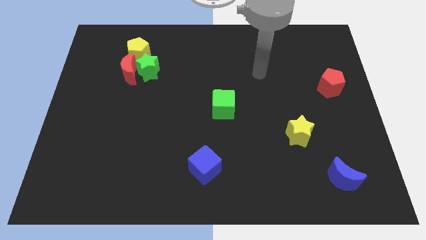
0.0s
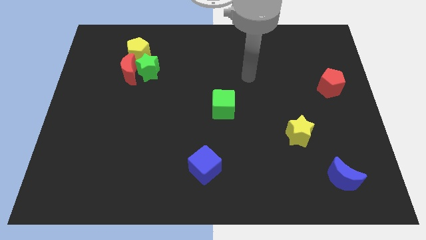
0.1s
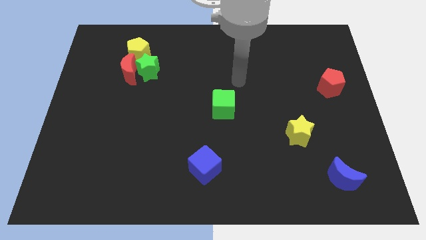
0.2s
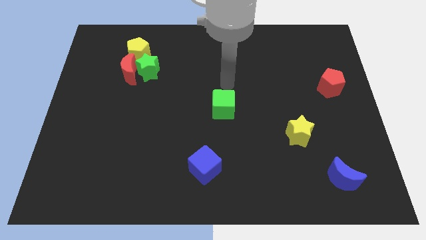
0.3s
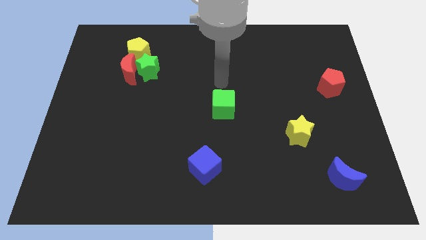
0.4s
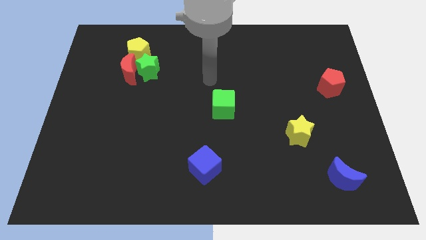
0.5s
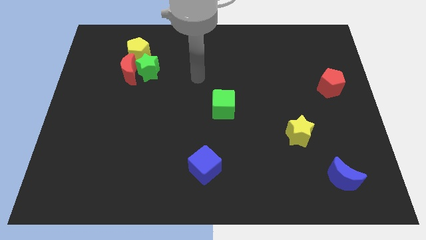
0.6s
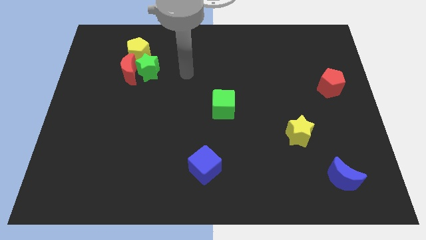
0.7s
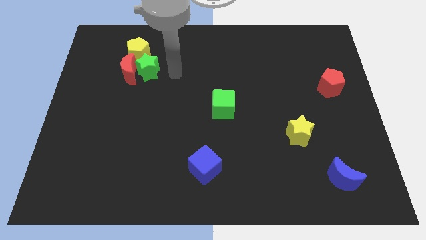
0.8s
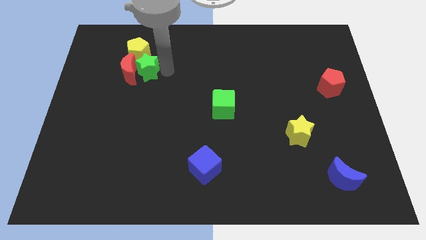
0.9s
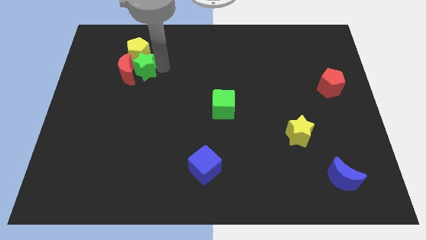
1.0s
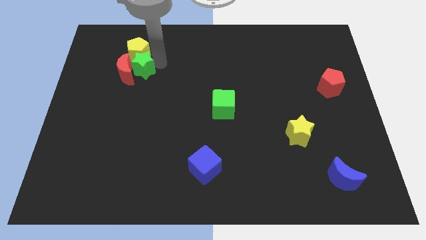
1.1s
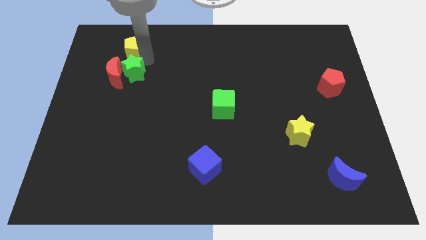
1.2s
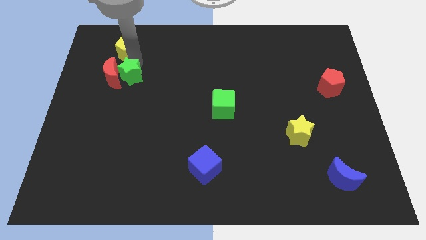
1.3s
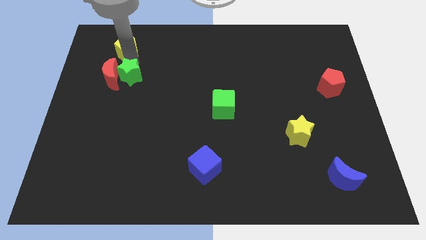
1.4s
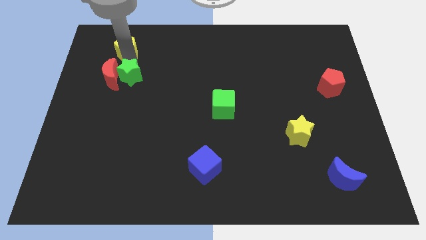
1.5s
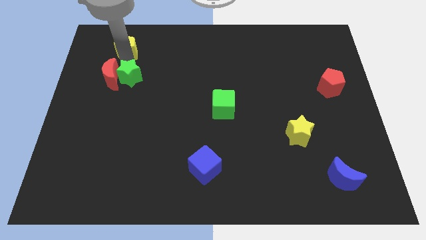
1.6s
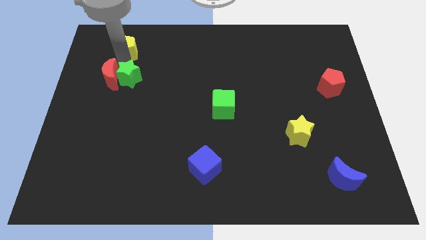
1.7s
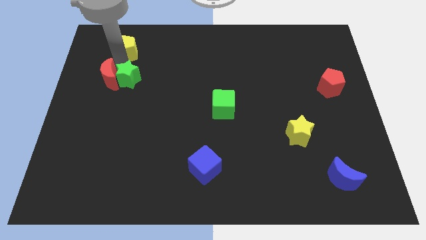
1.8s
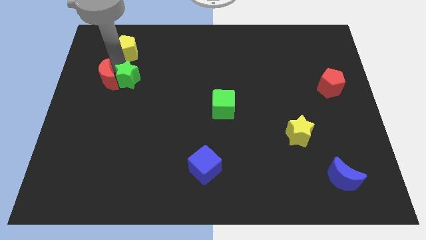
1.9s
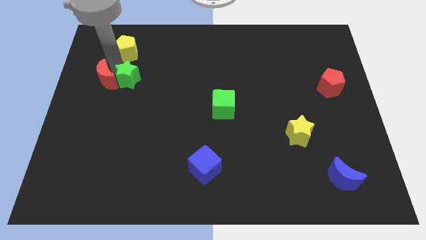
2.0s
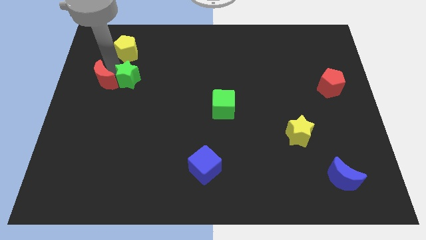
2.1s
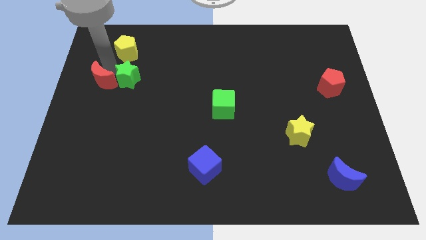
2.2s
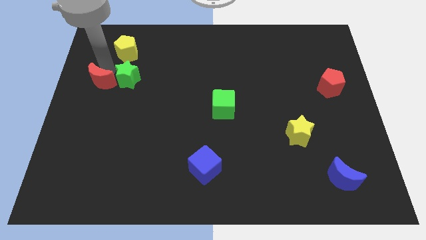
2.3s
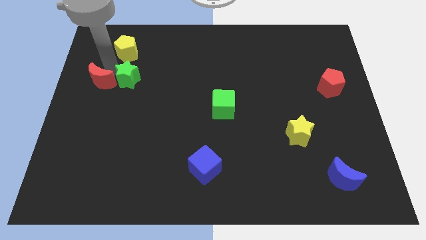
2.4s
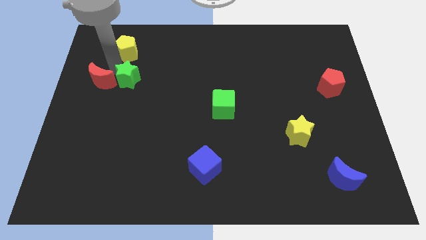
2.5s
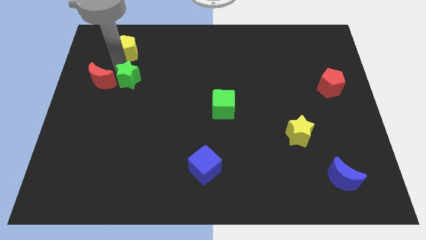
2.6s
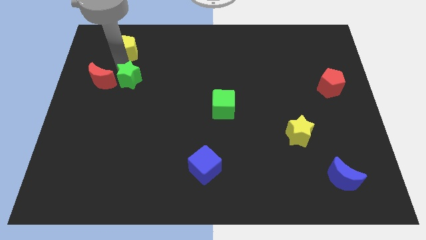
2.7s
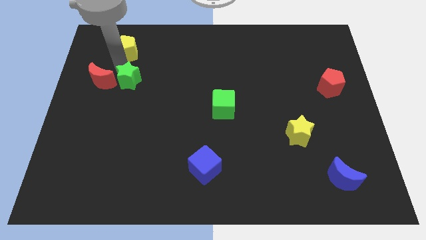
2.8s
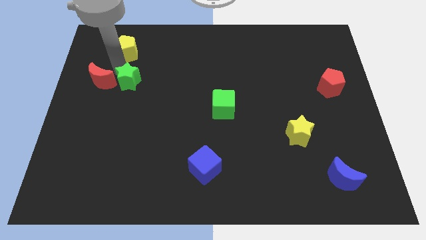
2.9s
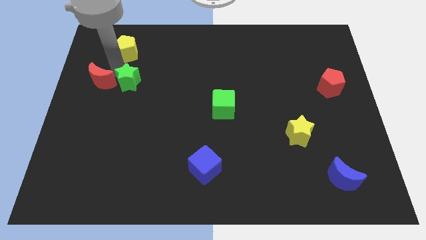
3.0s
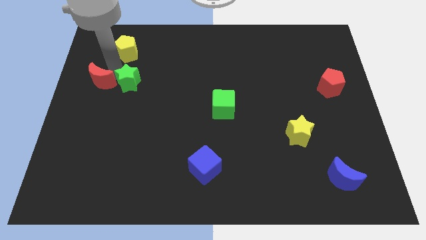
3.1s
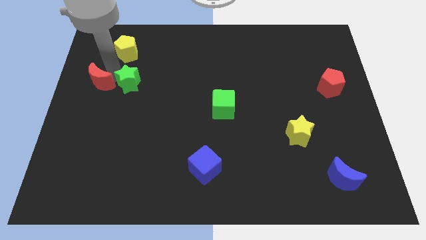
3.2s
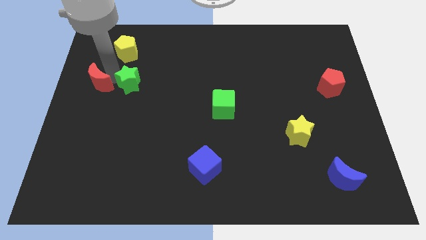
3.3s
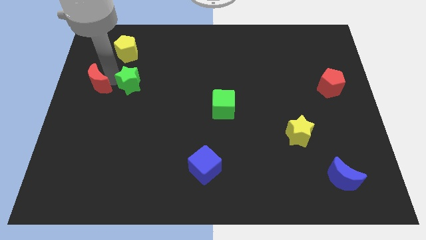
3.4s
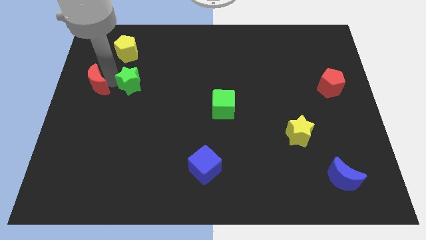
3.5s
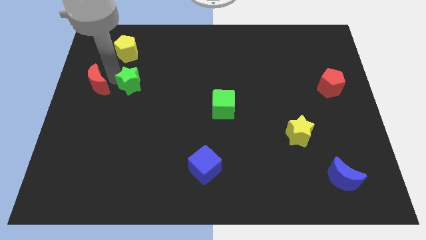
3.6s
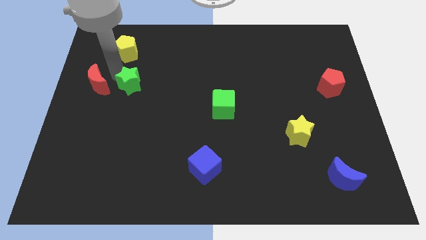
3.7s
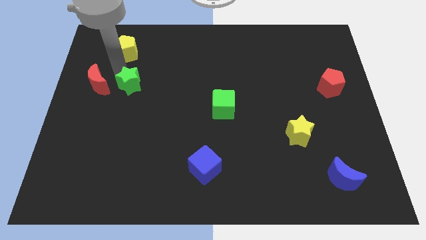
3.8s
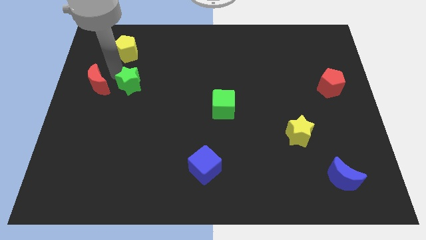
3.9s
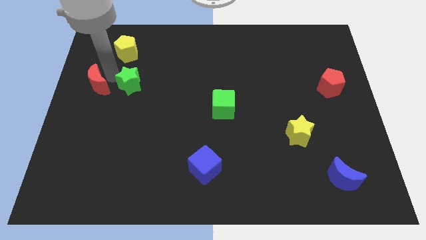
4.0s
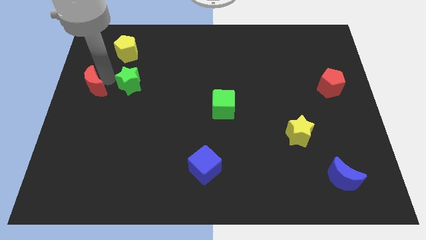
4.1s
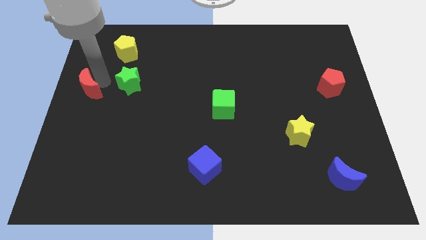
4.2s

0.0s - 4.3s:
pull the red moon apart from the green star and yellow pentagon

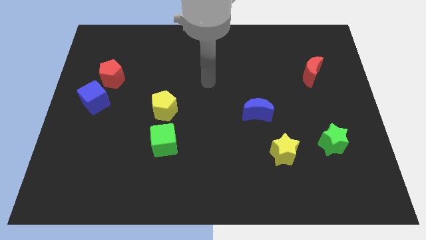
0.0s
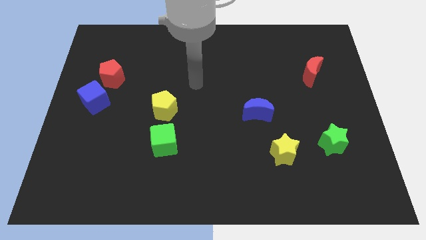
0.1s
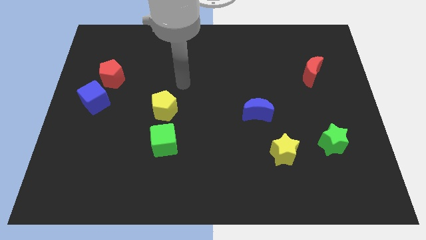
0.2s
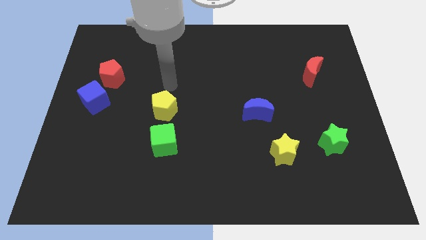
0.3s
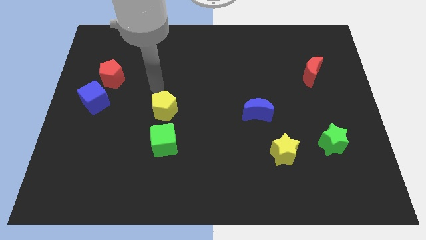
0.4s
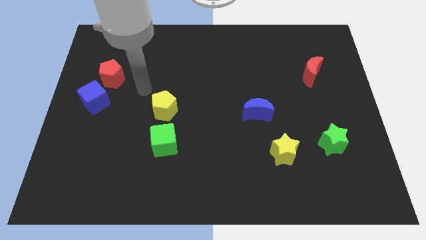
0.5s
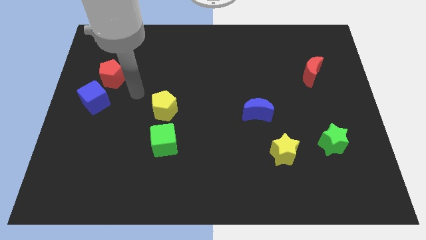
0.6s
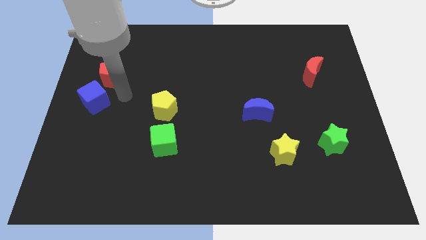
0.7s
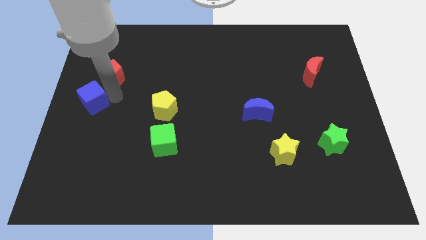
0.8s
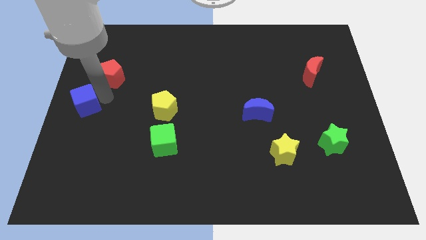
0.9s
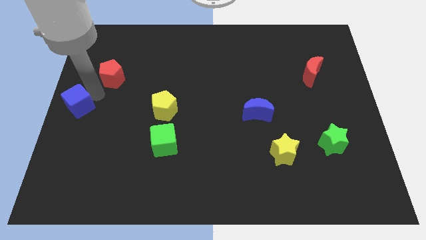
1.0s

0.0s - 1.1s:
move the red pentagon away from the blue cube

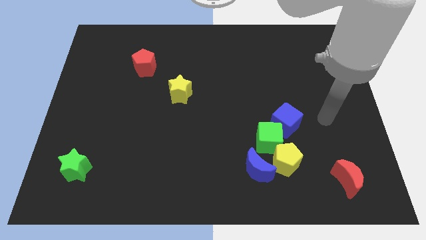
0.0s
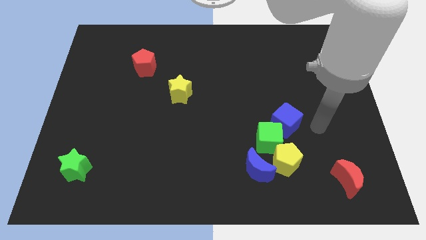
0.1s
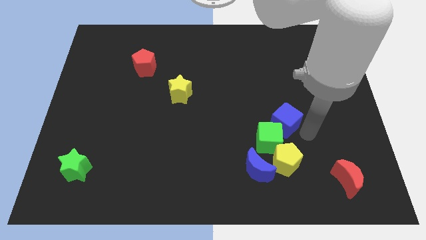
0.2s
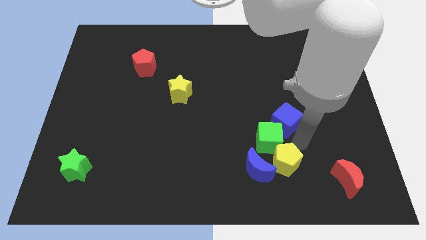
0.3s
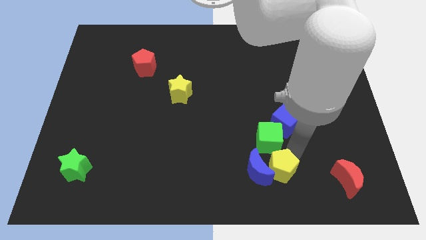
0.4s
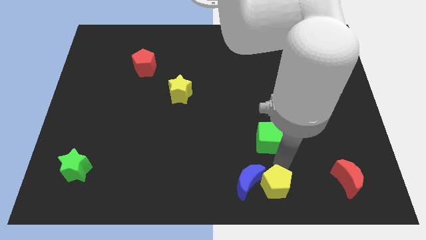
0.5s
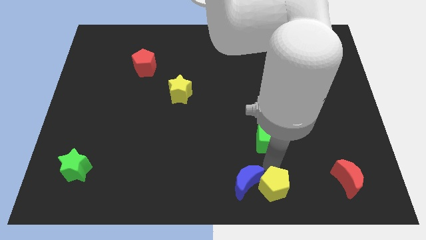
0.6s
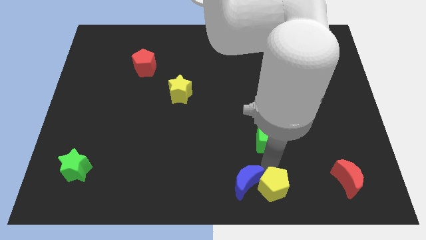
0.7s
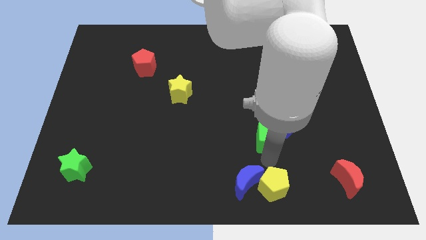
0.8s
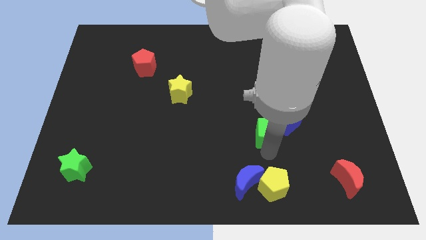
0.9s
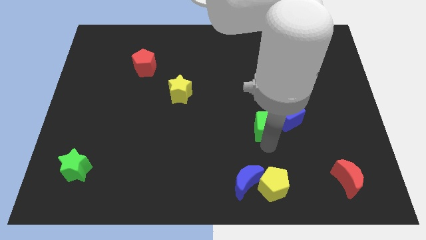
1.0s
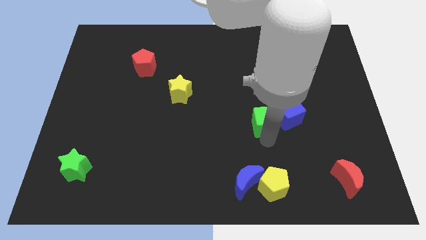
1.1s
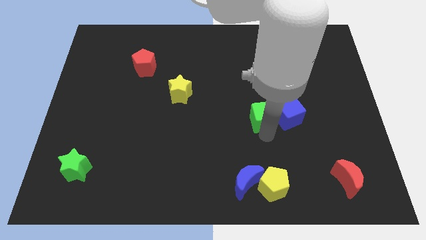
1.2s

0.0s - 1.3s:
separate the green cube from the group

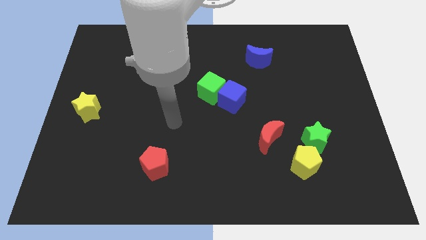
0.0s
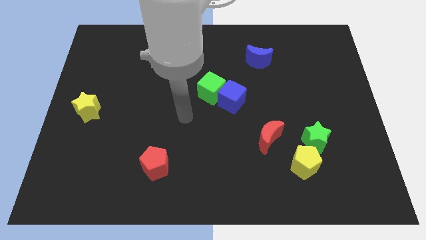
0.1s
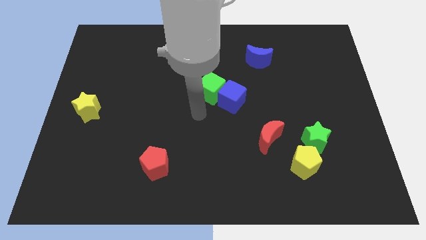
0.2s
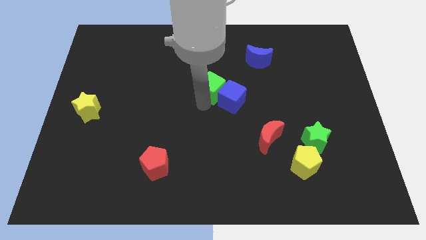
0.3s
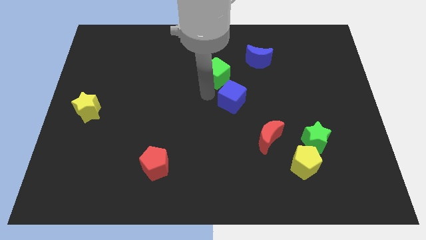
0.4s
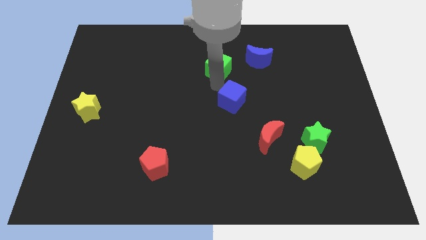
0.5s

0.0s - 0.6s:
separate the blue cube from the green cube

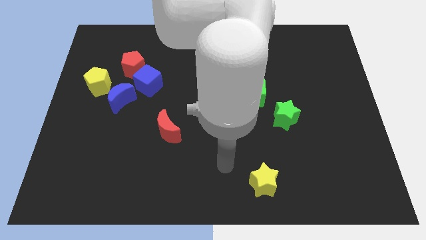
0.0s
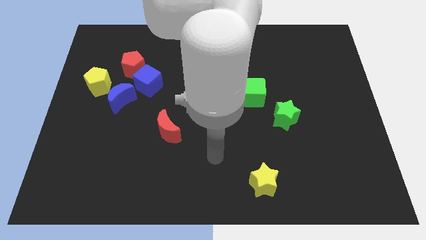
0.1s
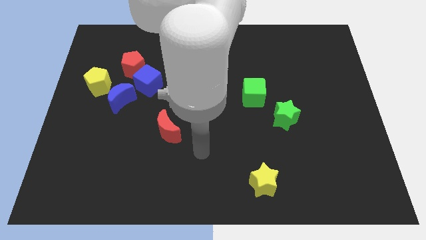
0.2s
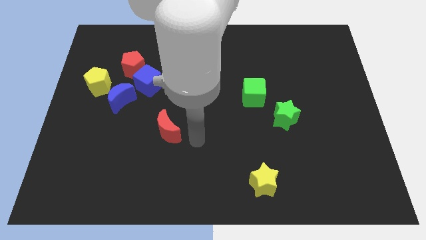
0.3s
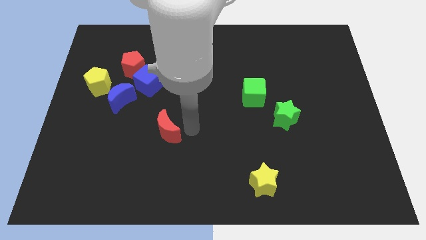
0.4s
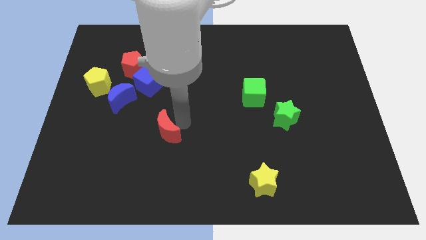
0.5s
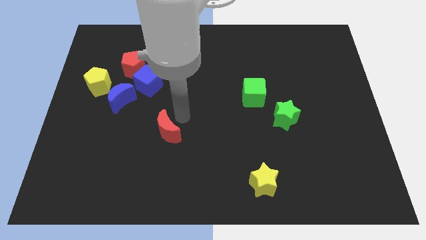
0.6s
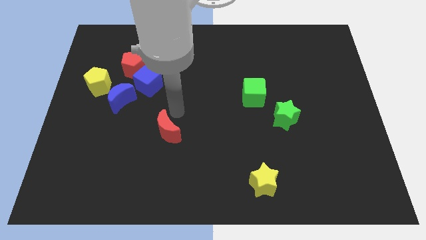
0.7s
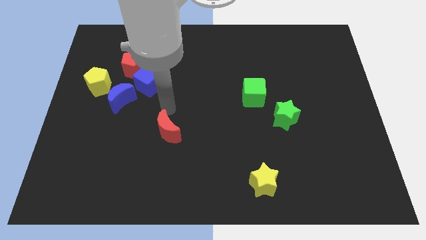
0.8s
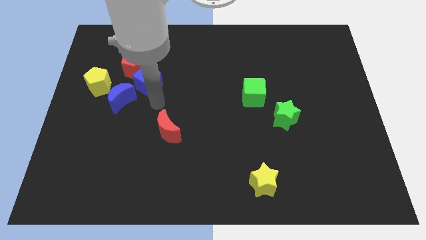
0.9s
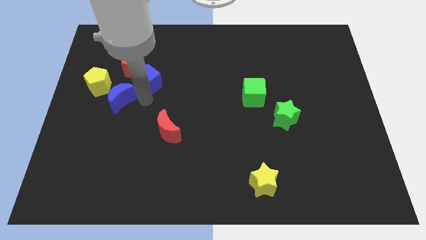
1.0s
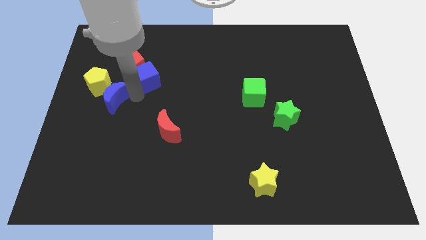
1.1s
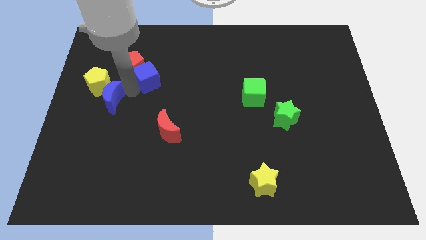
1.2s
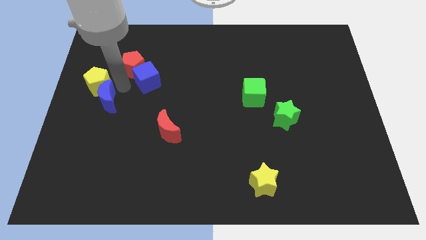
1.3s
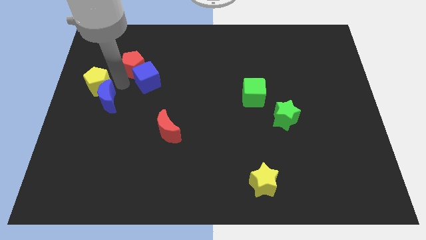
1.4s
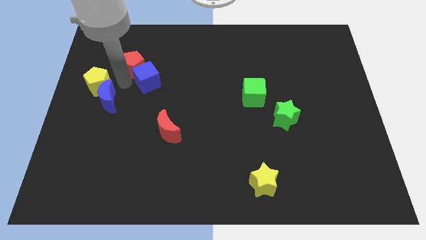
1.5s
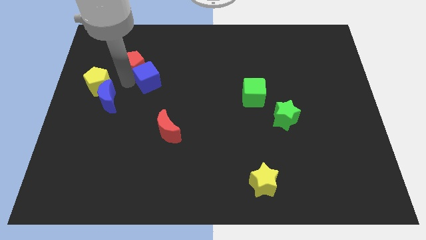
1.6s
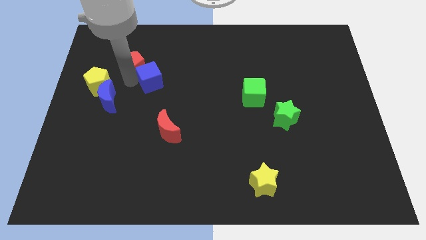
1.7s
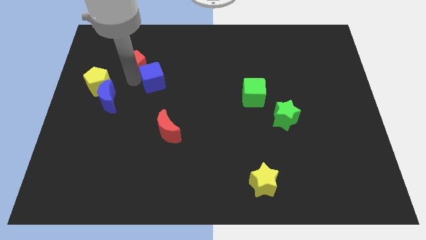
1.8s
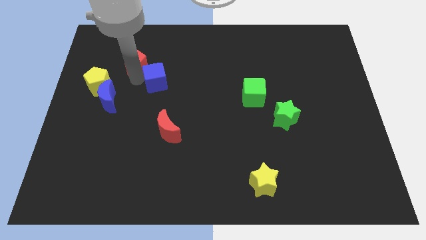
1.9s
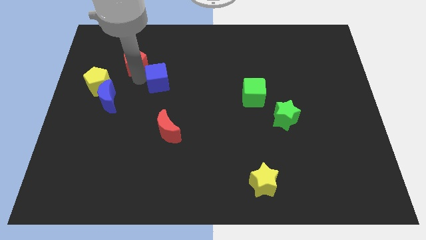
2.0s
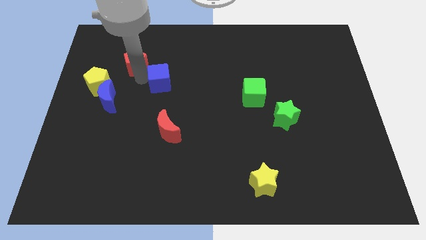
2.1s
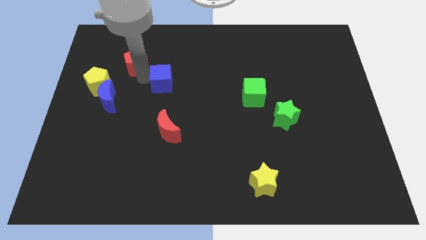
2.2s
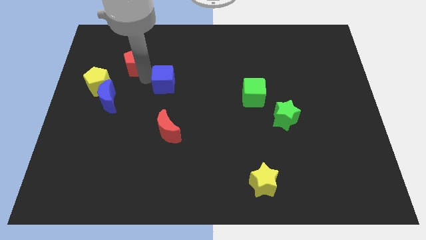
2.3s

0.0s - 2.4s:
pull the blue cube apart from the red pentagon and blue moon
